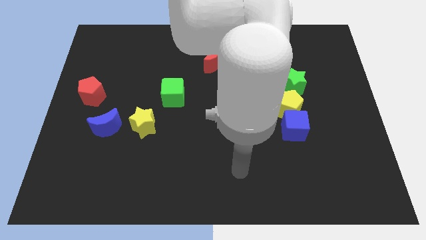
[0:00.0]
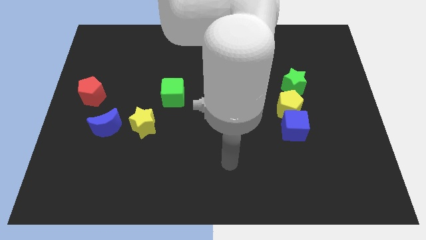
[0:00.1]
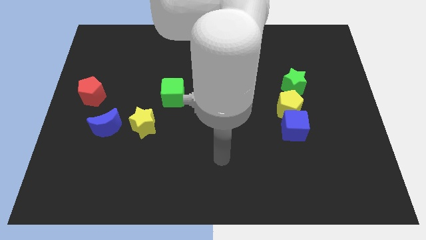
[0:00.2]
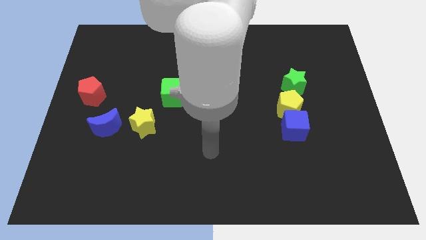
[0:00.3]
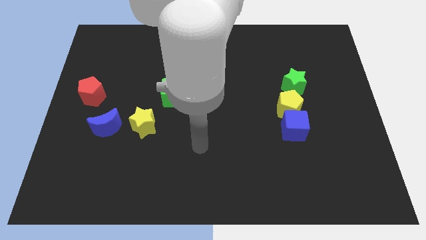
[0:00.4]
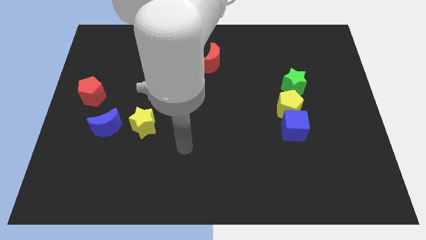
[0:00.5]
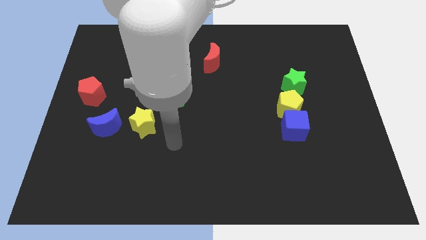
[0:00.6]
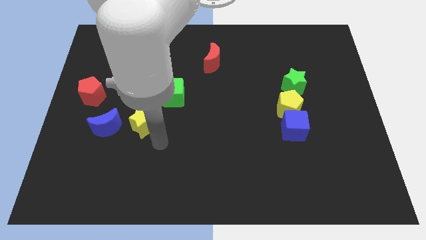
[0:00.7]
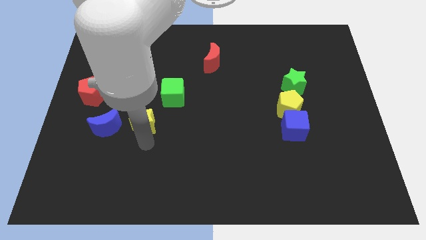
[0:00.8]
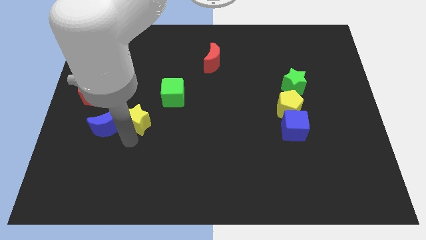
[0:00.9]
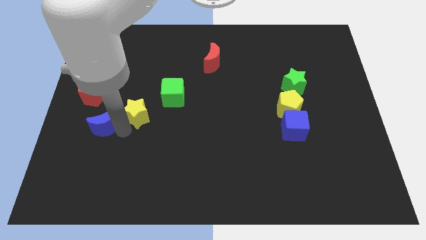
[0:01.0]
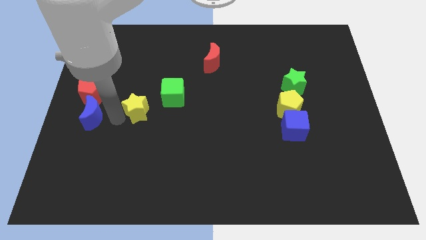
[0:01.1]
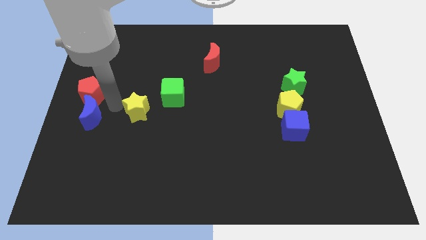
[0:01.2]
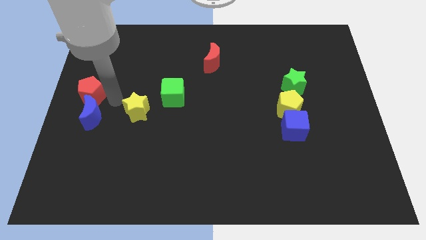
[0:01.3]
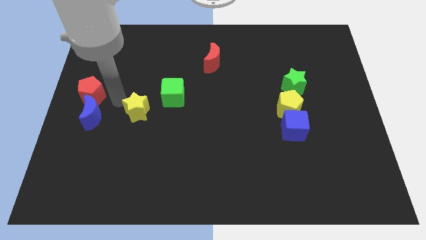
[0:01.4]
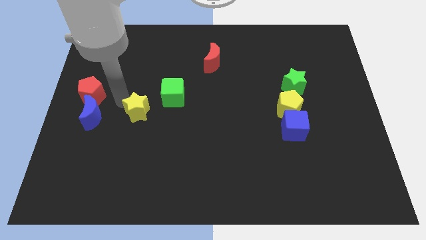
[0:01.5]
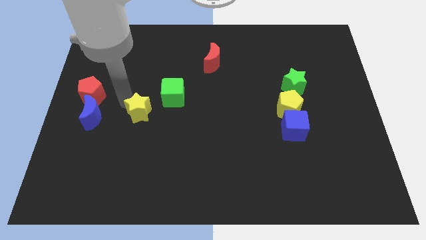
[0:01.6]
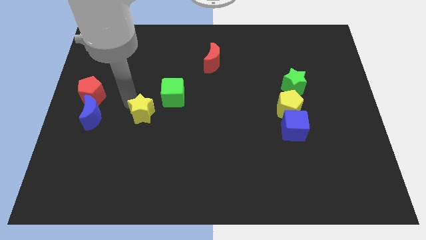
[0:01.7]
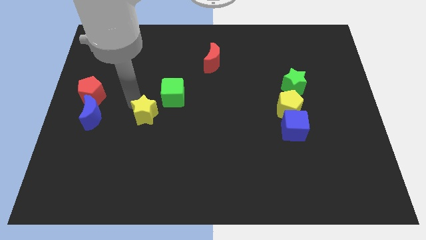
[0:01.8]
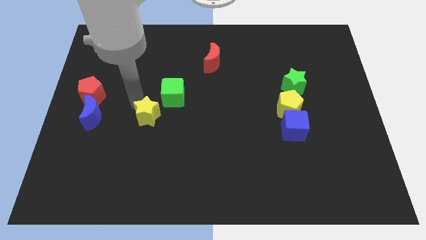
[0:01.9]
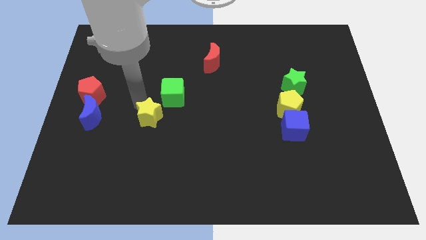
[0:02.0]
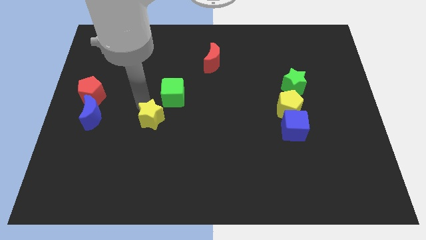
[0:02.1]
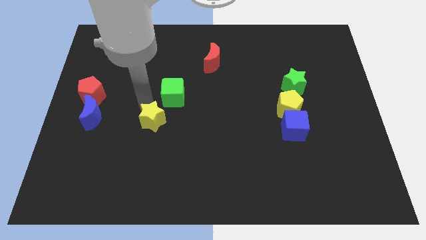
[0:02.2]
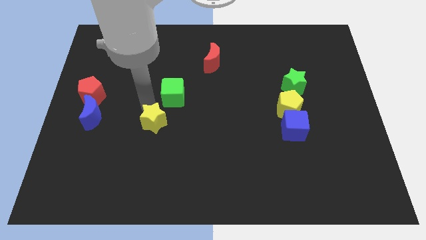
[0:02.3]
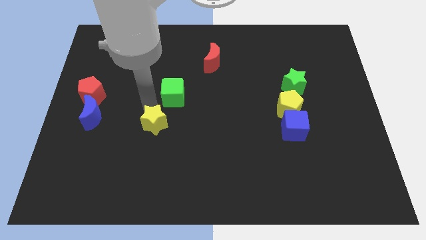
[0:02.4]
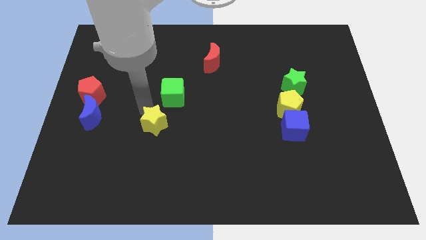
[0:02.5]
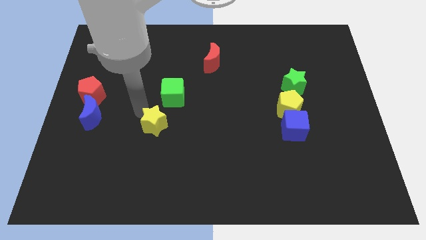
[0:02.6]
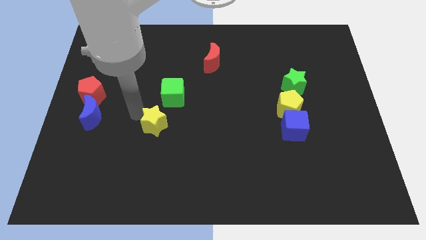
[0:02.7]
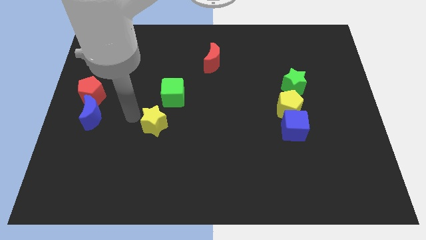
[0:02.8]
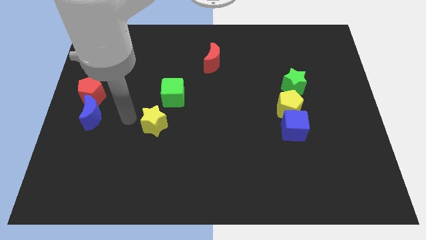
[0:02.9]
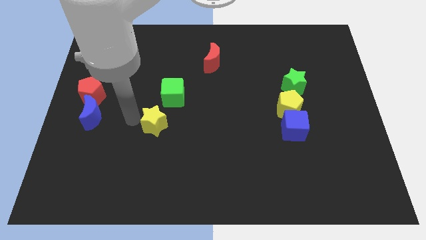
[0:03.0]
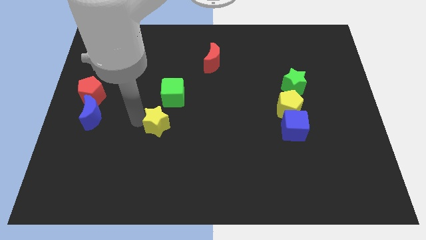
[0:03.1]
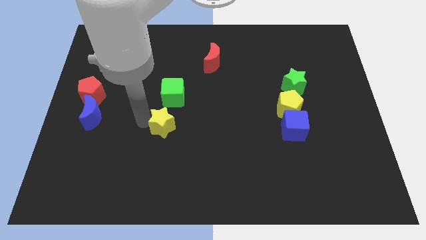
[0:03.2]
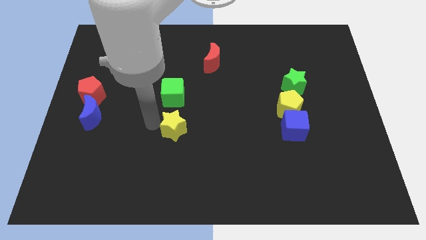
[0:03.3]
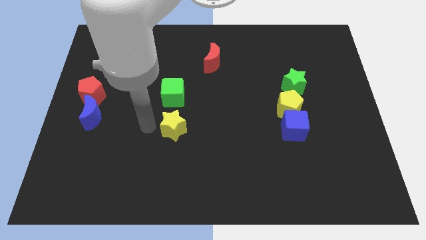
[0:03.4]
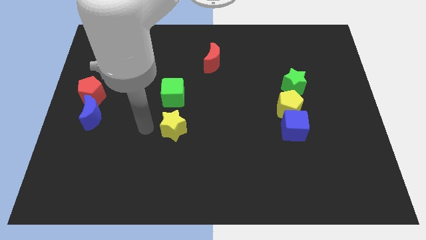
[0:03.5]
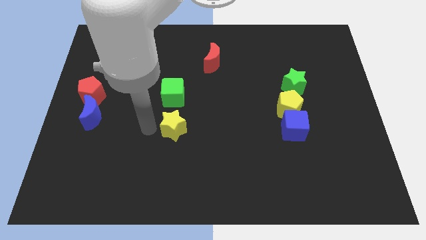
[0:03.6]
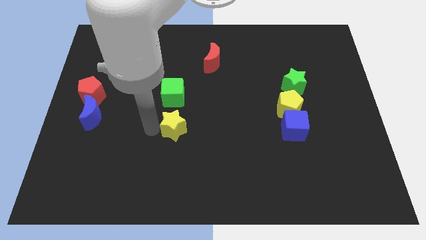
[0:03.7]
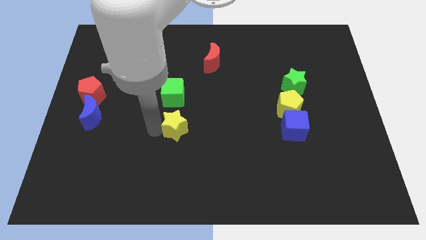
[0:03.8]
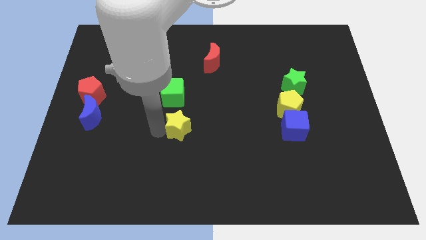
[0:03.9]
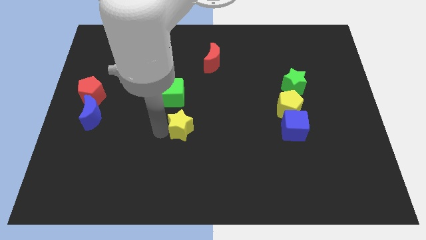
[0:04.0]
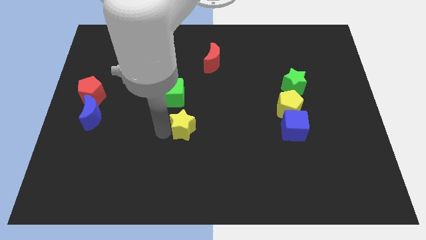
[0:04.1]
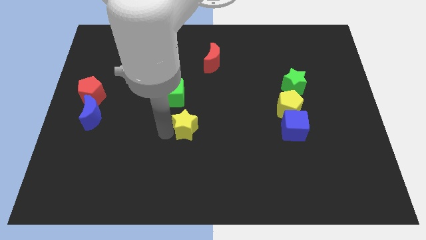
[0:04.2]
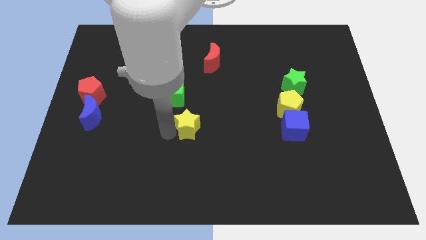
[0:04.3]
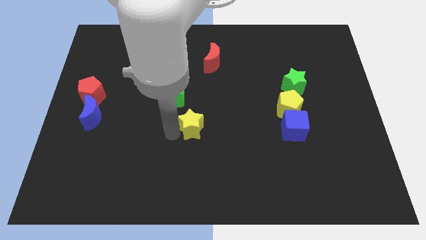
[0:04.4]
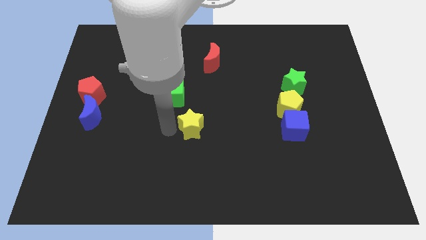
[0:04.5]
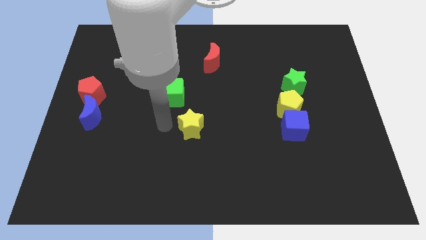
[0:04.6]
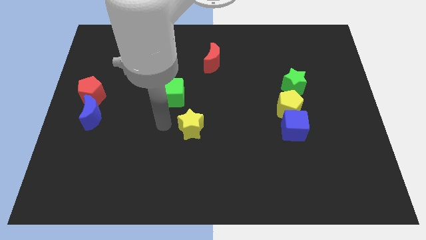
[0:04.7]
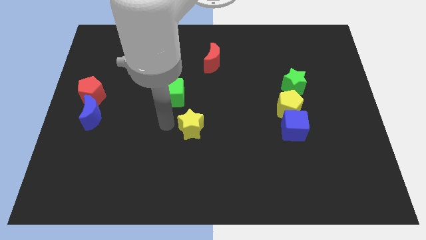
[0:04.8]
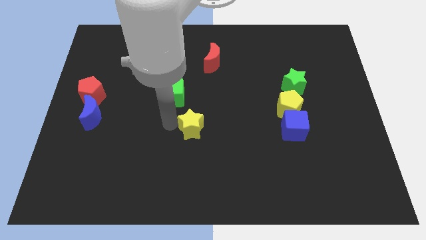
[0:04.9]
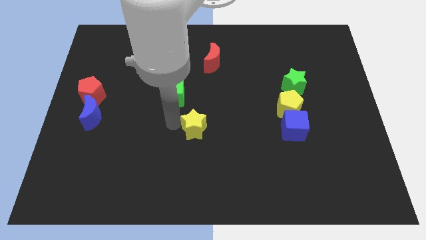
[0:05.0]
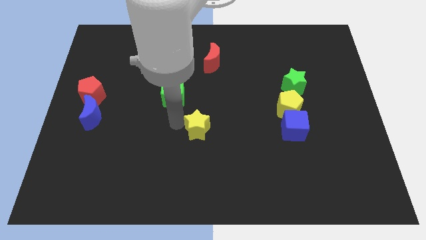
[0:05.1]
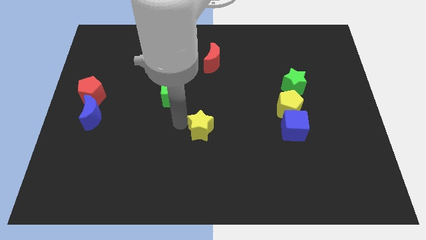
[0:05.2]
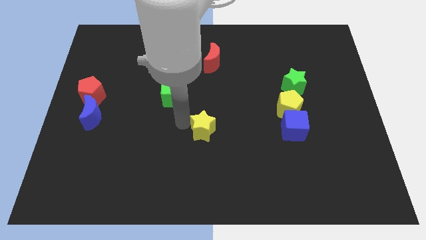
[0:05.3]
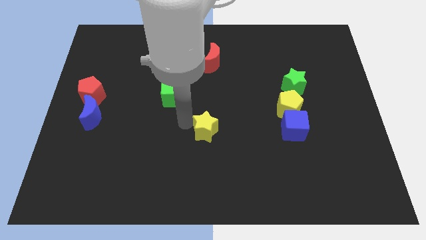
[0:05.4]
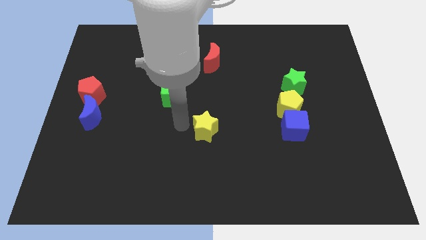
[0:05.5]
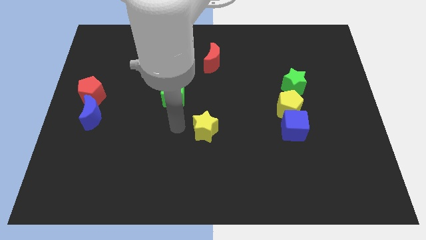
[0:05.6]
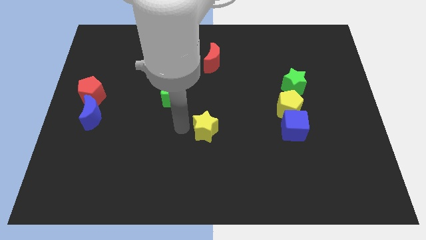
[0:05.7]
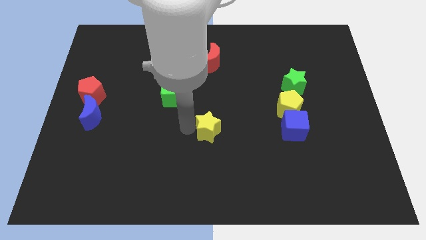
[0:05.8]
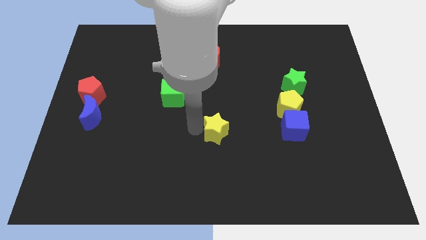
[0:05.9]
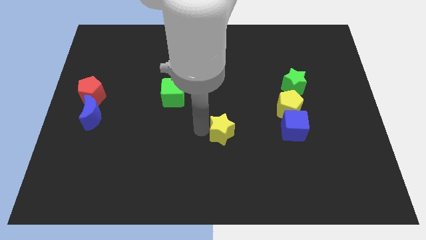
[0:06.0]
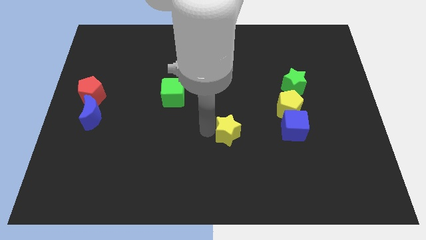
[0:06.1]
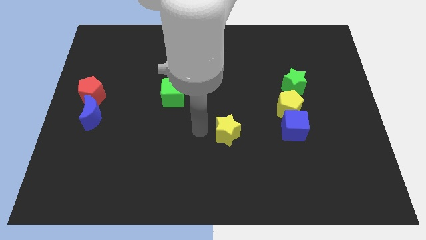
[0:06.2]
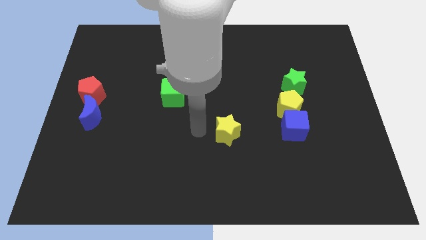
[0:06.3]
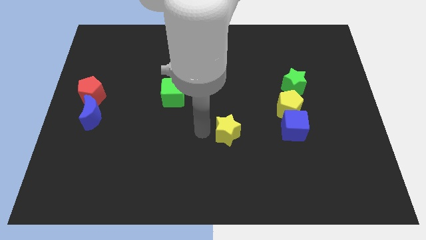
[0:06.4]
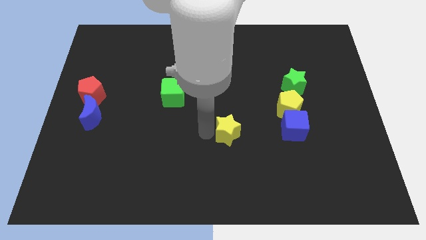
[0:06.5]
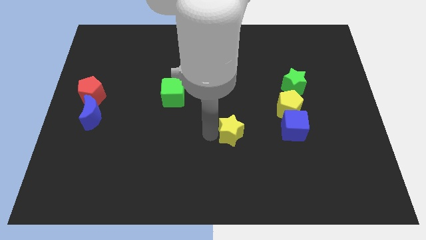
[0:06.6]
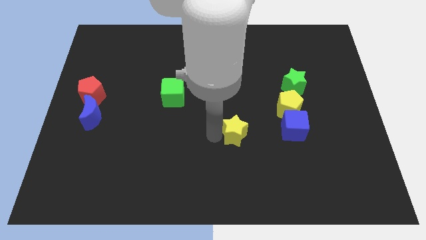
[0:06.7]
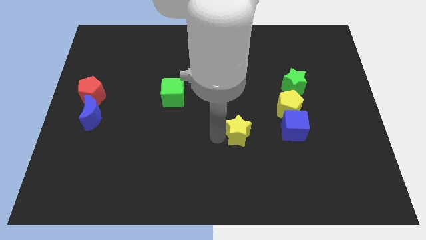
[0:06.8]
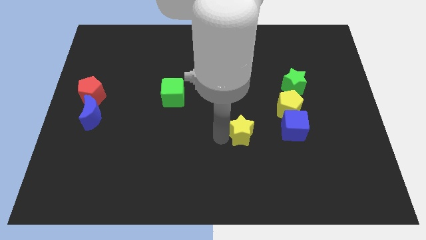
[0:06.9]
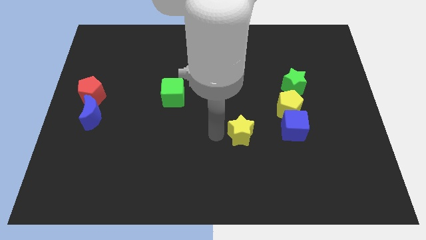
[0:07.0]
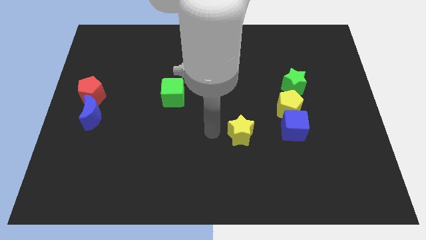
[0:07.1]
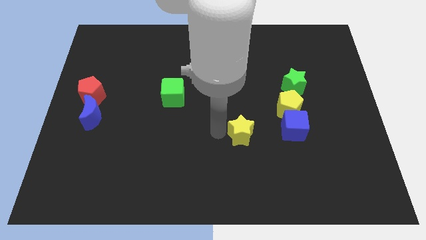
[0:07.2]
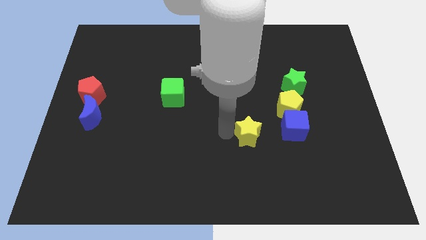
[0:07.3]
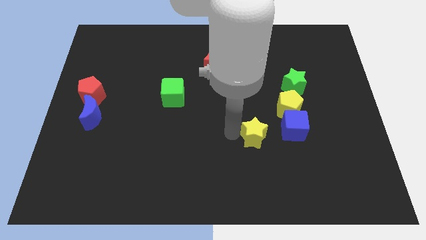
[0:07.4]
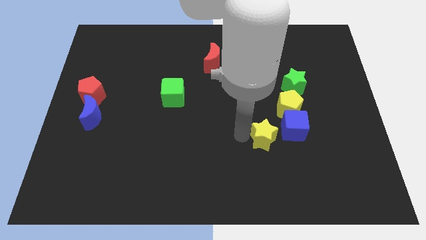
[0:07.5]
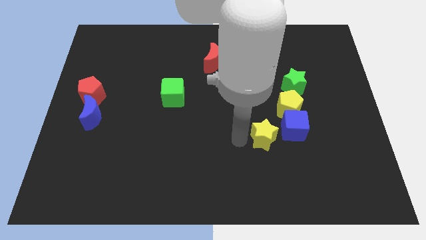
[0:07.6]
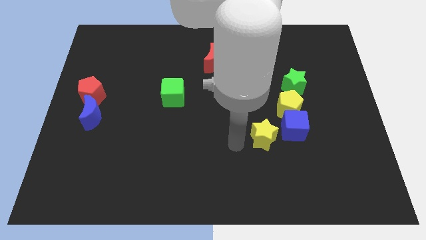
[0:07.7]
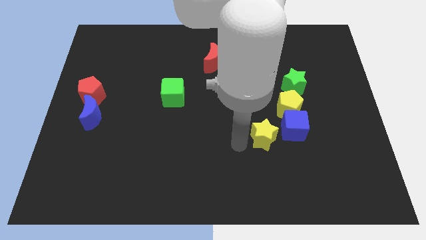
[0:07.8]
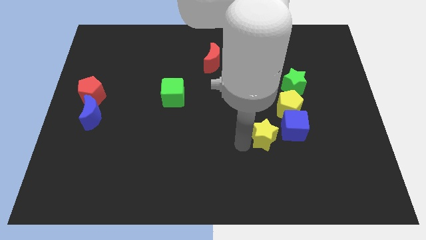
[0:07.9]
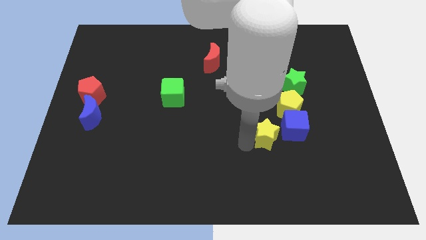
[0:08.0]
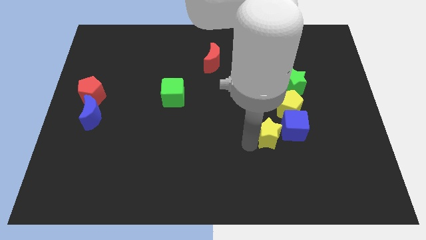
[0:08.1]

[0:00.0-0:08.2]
move the yellow star to the blue cube
